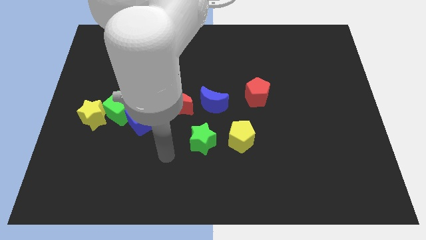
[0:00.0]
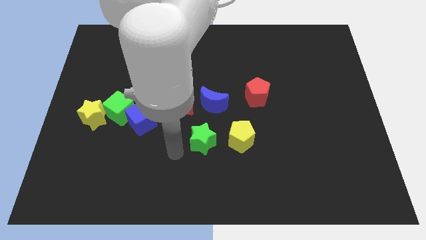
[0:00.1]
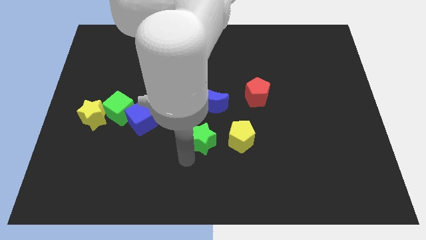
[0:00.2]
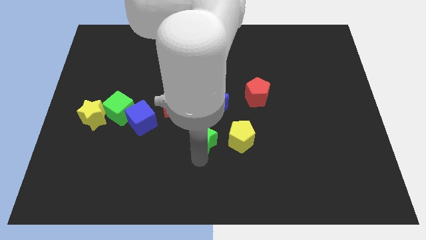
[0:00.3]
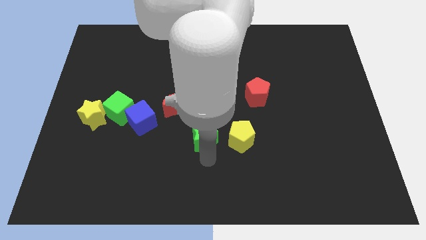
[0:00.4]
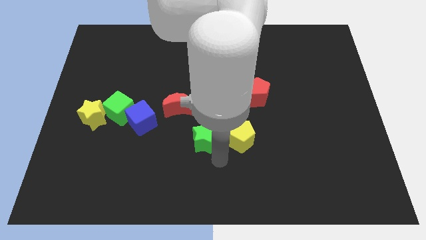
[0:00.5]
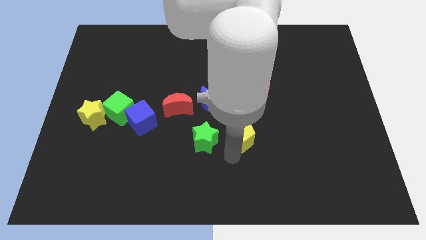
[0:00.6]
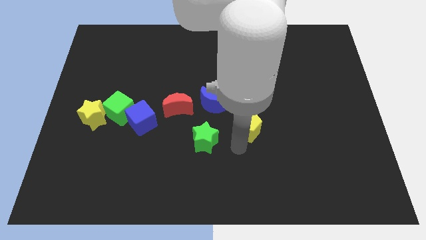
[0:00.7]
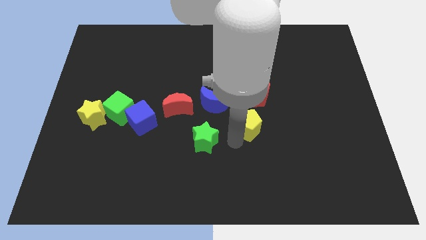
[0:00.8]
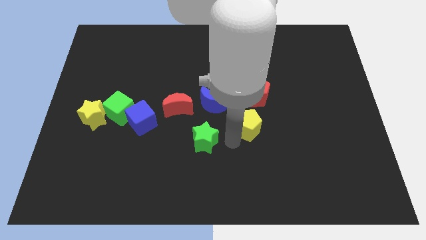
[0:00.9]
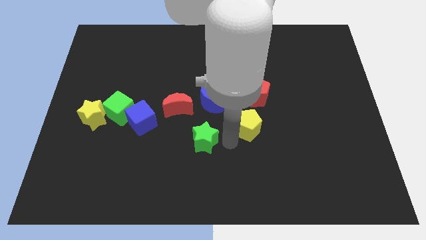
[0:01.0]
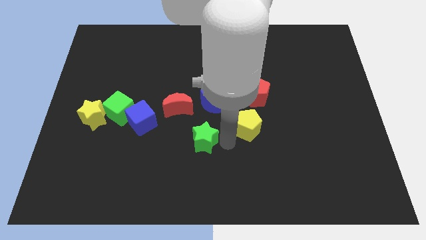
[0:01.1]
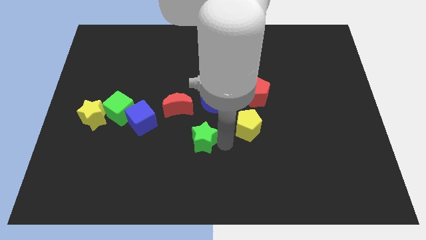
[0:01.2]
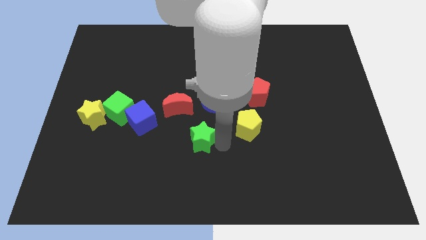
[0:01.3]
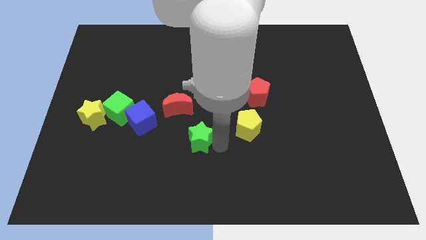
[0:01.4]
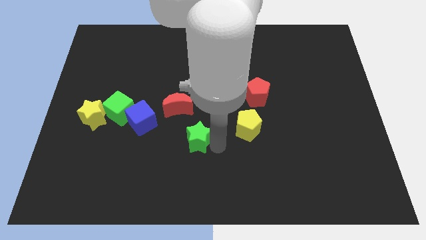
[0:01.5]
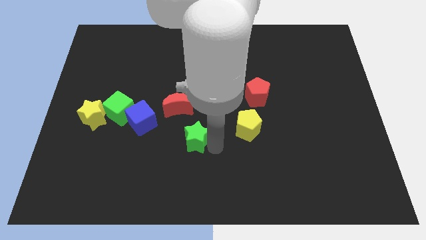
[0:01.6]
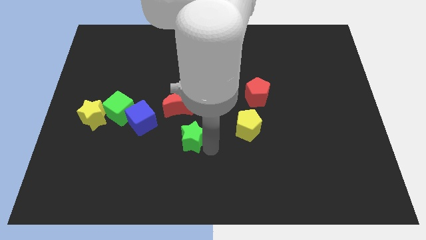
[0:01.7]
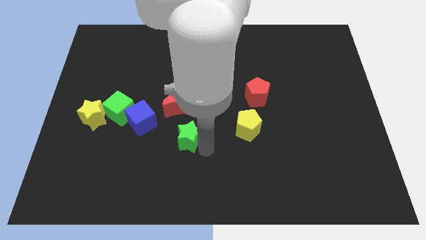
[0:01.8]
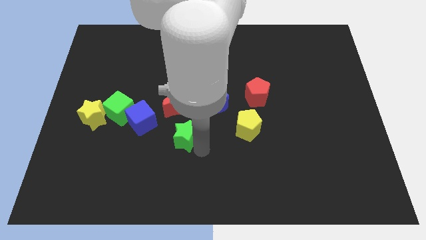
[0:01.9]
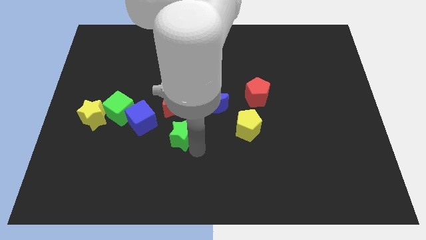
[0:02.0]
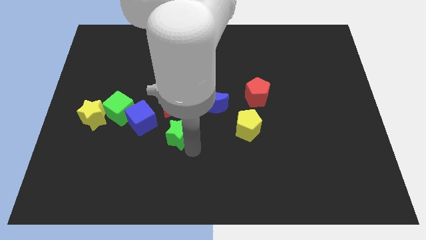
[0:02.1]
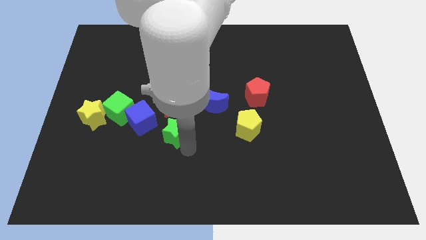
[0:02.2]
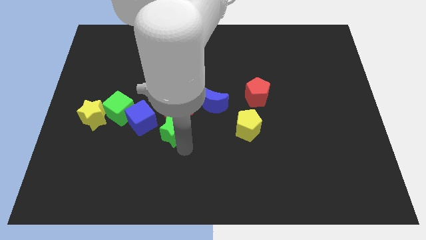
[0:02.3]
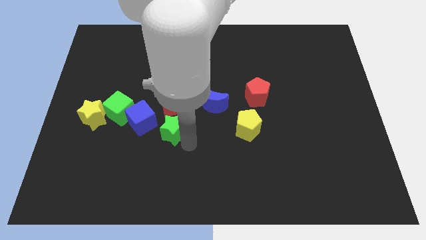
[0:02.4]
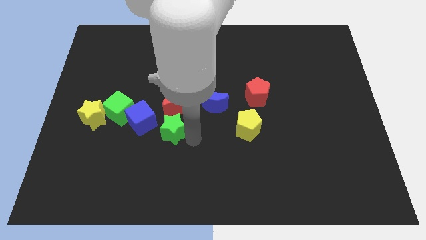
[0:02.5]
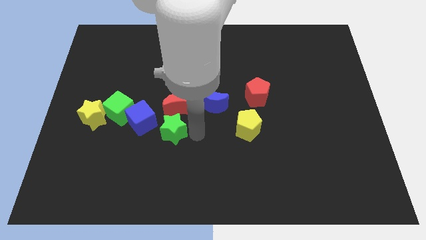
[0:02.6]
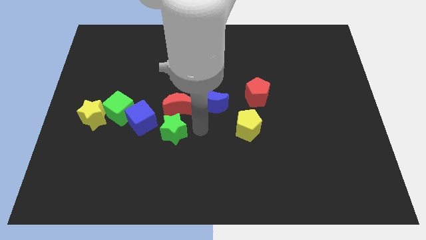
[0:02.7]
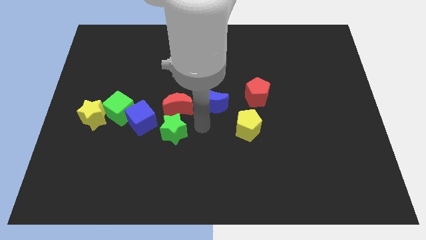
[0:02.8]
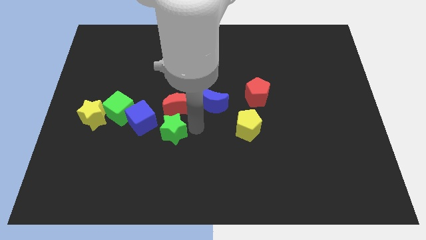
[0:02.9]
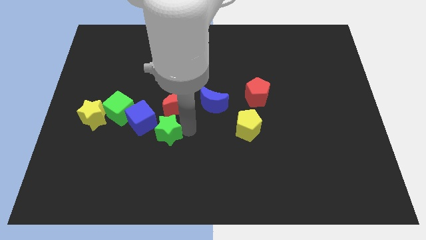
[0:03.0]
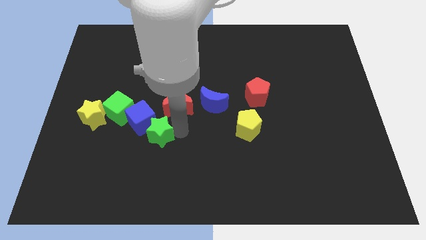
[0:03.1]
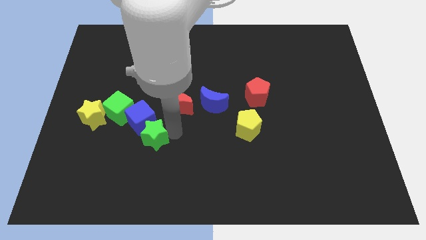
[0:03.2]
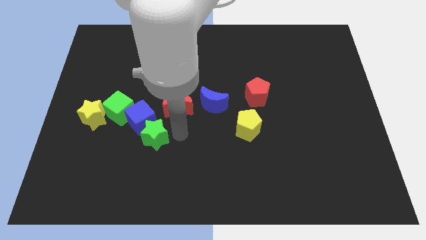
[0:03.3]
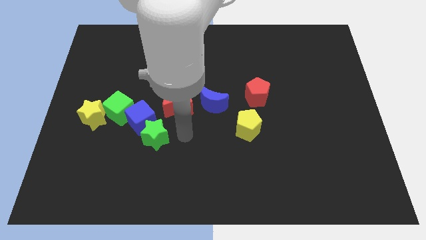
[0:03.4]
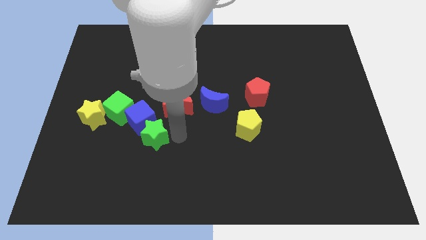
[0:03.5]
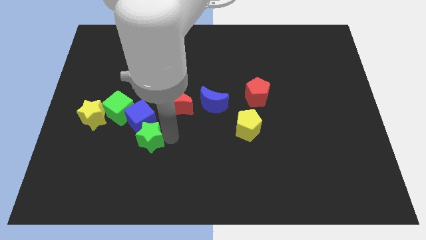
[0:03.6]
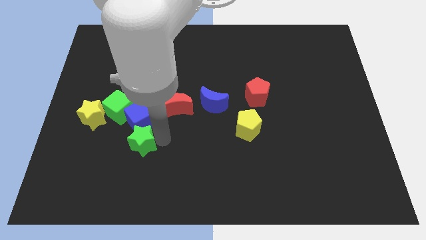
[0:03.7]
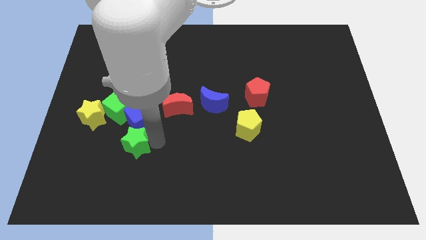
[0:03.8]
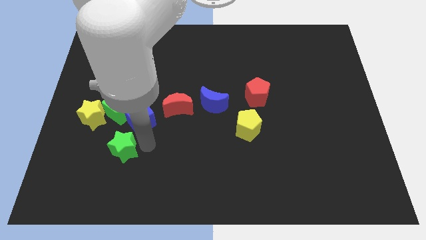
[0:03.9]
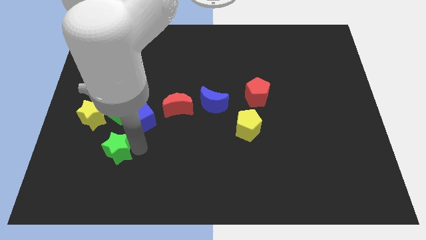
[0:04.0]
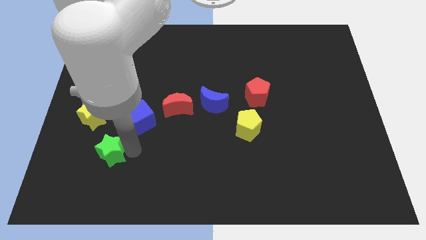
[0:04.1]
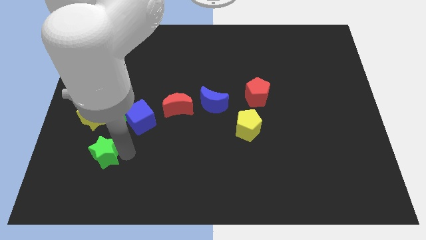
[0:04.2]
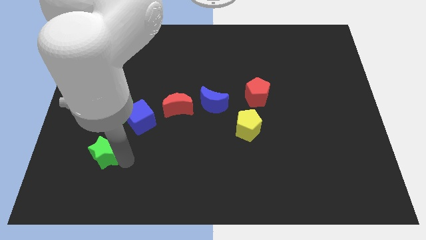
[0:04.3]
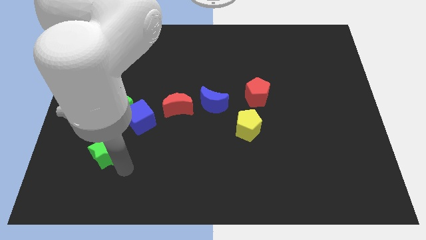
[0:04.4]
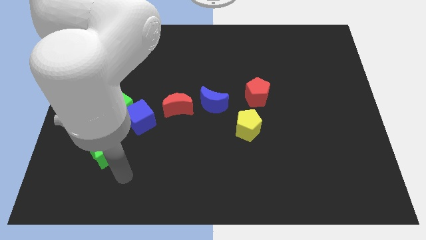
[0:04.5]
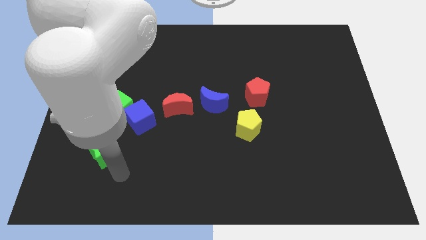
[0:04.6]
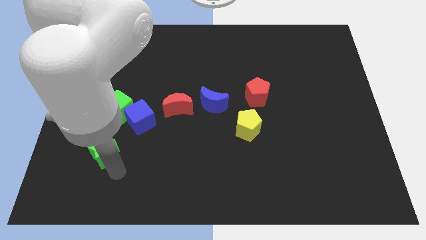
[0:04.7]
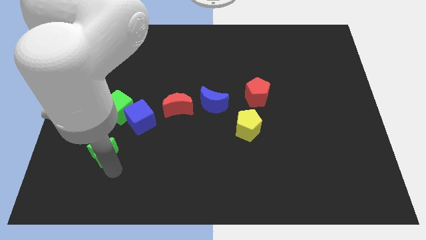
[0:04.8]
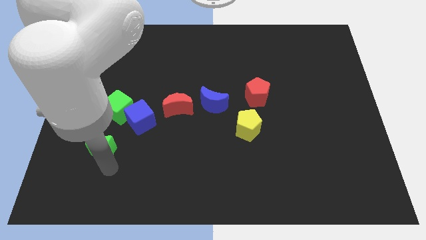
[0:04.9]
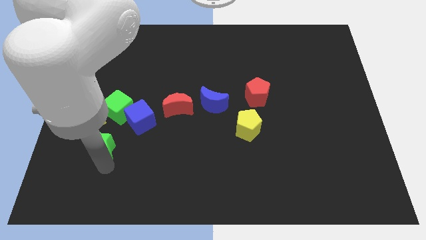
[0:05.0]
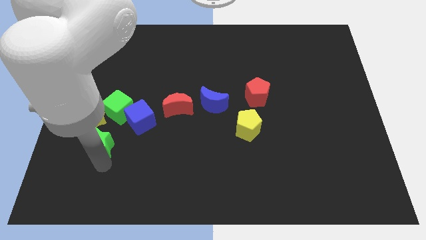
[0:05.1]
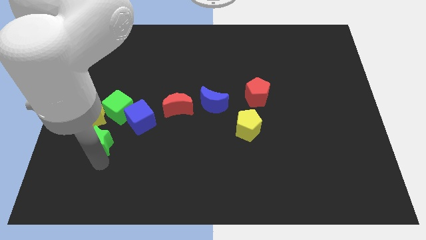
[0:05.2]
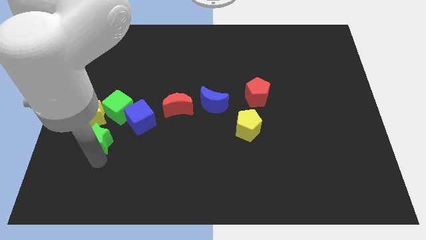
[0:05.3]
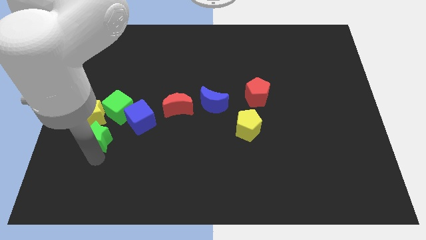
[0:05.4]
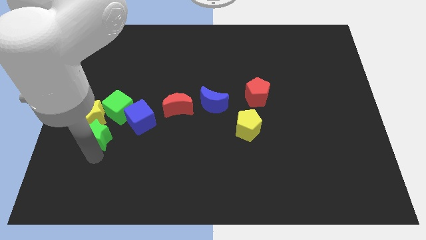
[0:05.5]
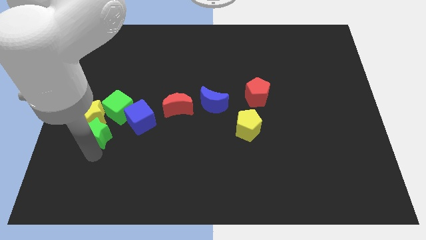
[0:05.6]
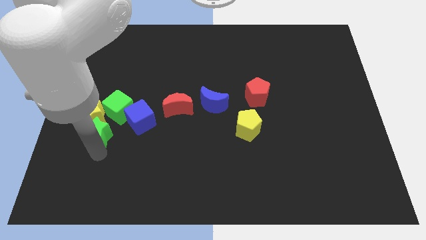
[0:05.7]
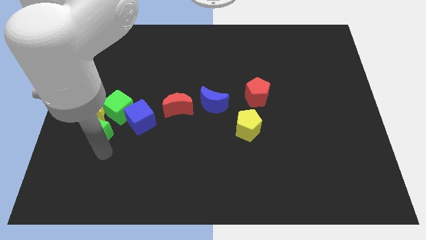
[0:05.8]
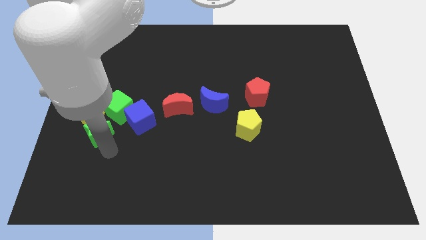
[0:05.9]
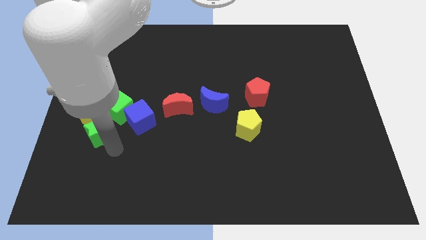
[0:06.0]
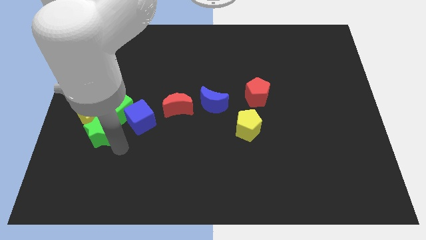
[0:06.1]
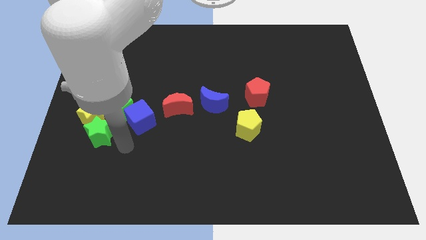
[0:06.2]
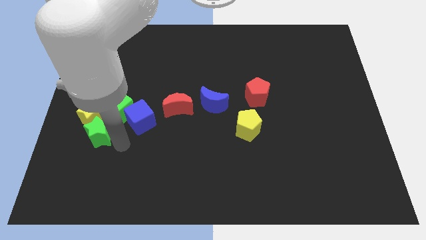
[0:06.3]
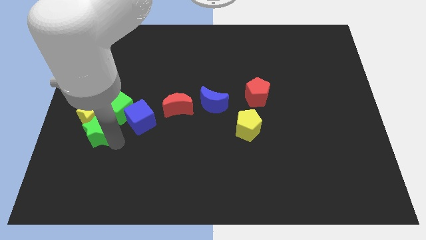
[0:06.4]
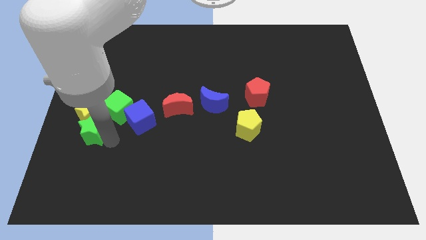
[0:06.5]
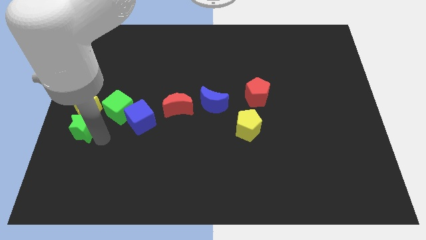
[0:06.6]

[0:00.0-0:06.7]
push the green star to the left side

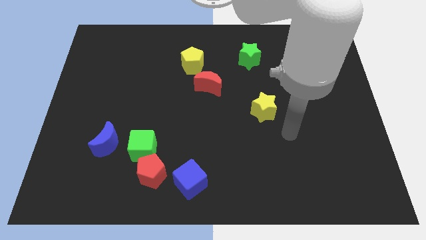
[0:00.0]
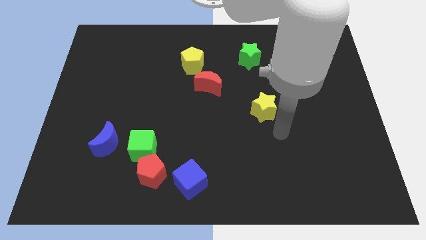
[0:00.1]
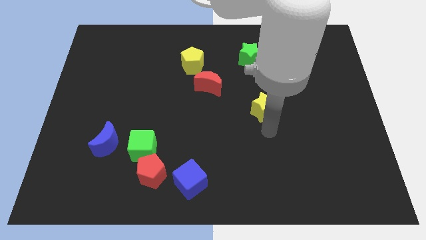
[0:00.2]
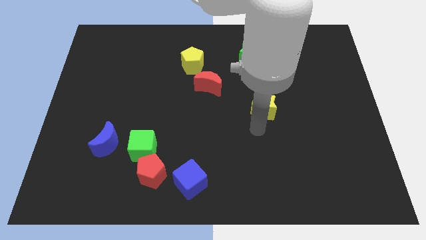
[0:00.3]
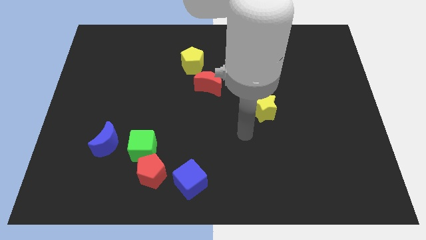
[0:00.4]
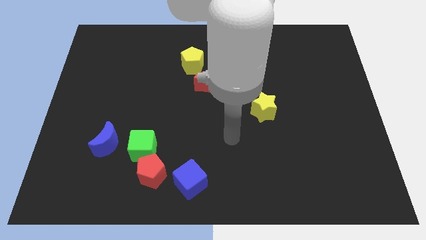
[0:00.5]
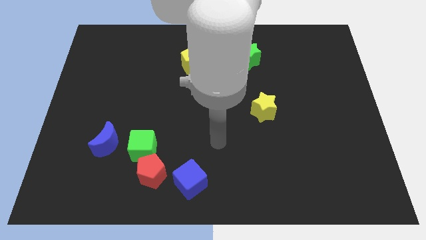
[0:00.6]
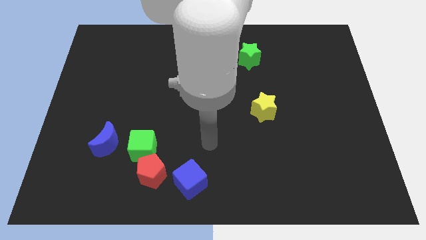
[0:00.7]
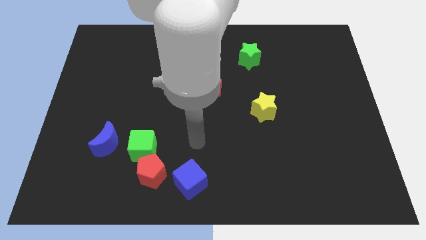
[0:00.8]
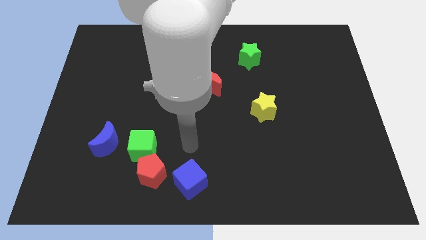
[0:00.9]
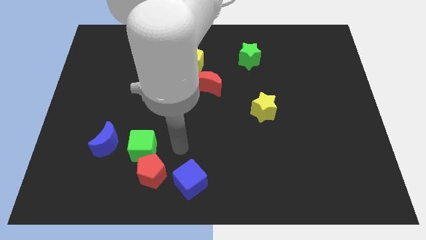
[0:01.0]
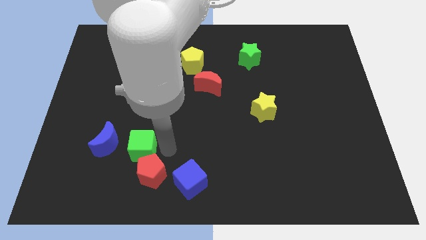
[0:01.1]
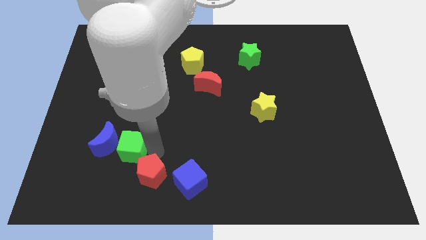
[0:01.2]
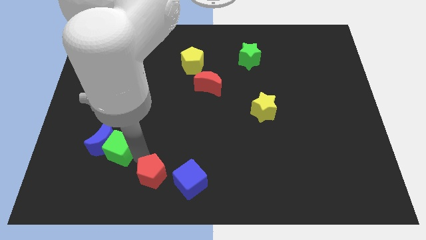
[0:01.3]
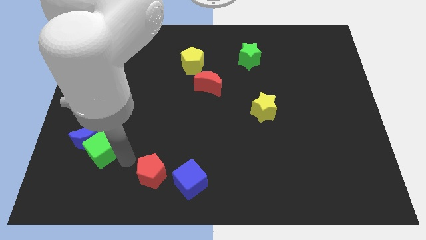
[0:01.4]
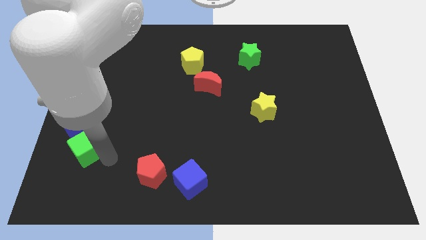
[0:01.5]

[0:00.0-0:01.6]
push the blue moon to the left side of the board
